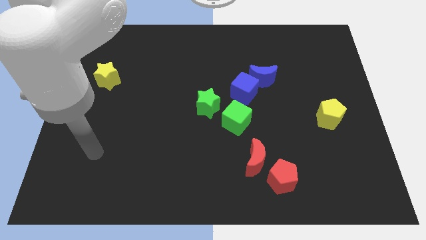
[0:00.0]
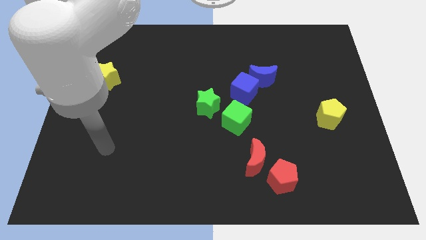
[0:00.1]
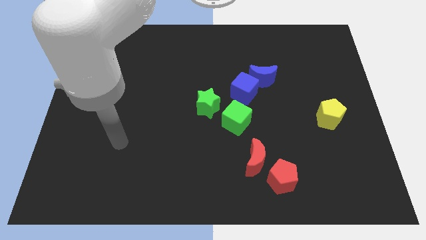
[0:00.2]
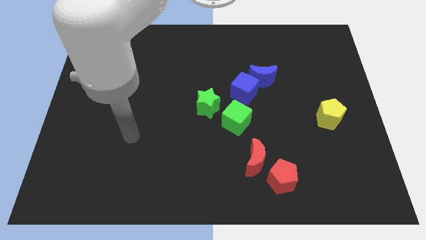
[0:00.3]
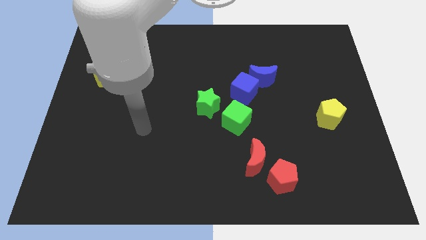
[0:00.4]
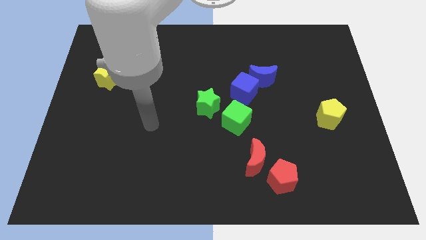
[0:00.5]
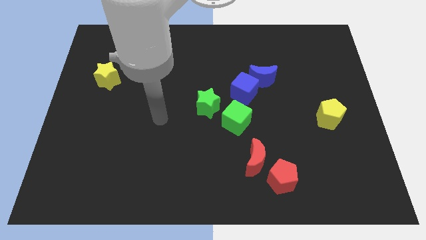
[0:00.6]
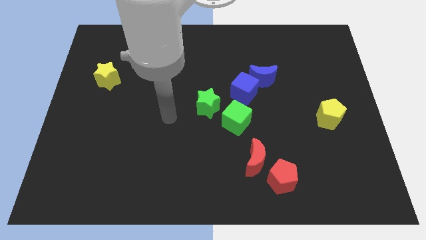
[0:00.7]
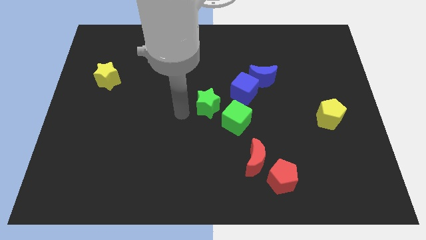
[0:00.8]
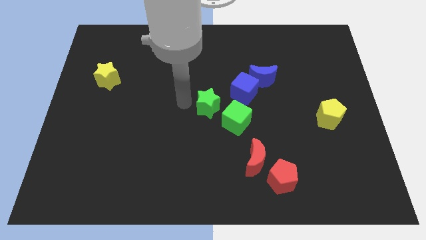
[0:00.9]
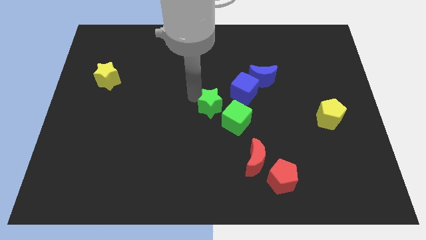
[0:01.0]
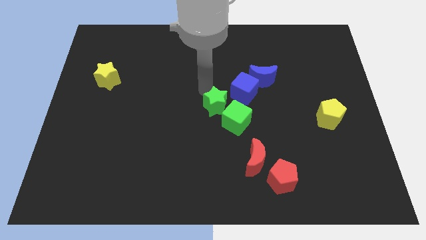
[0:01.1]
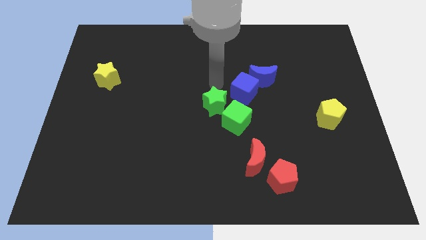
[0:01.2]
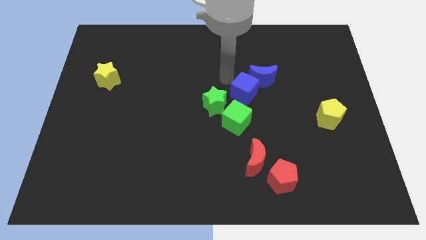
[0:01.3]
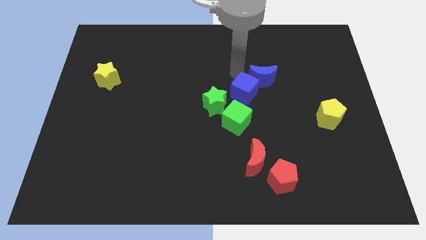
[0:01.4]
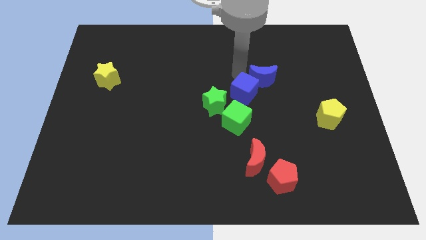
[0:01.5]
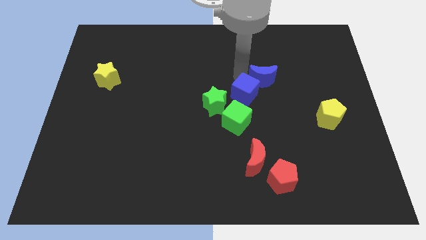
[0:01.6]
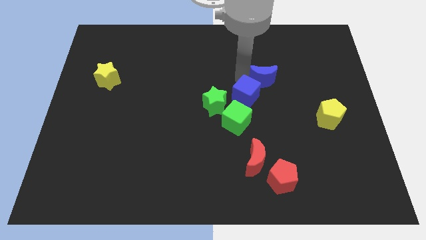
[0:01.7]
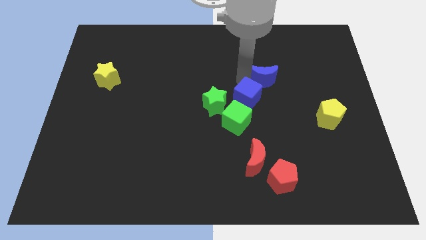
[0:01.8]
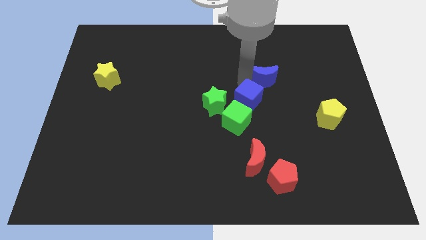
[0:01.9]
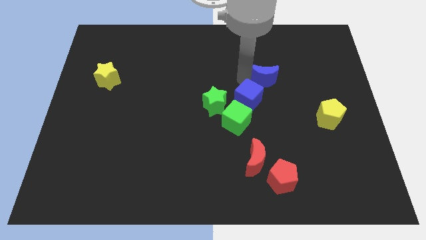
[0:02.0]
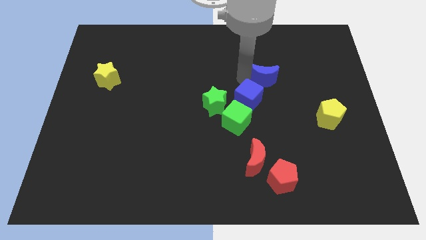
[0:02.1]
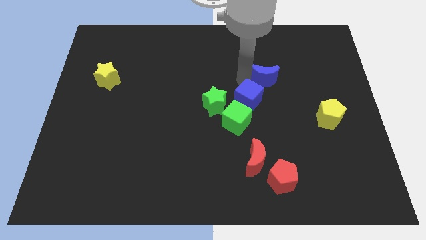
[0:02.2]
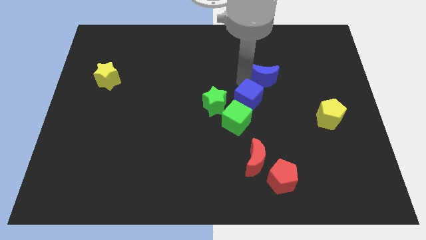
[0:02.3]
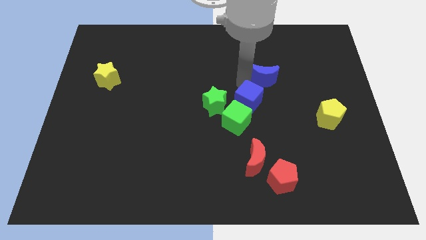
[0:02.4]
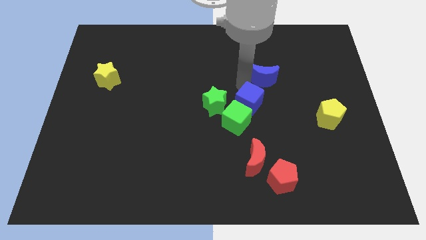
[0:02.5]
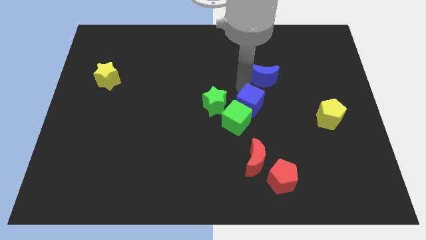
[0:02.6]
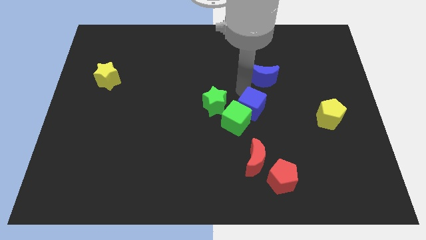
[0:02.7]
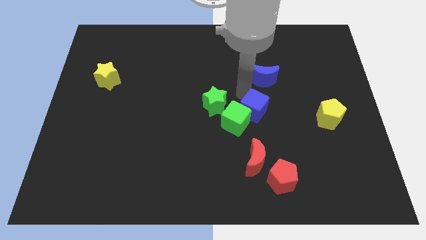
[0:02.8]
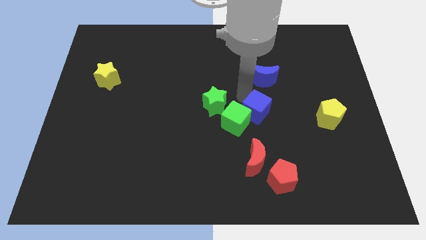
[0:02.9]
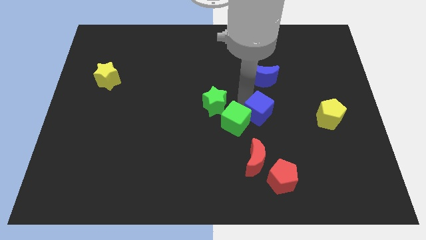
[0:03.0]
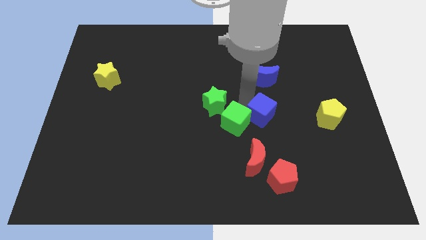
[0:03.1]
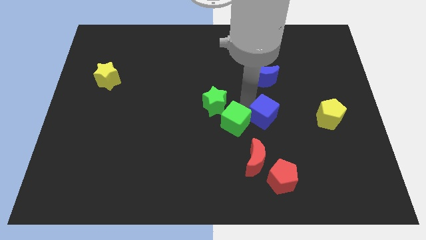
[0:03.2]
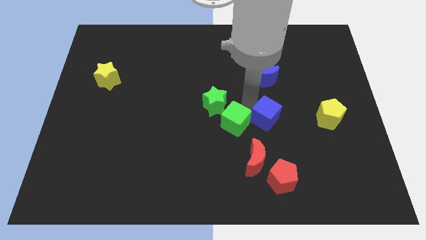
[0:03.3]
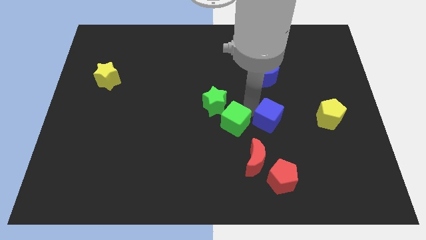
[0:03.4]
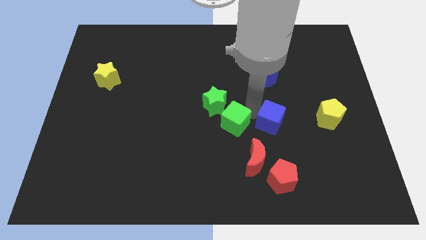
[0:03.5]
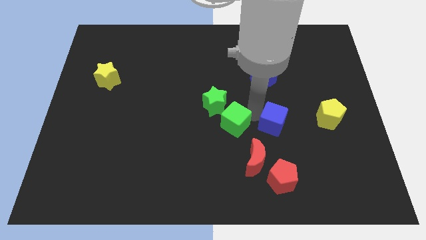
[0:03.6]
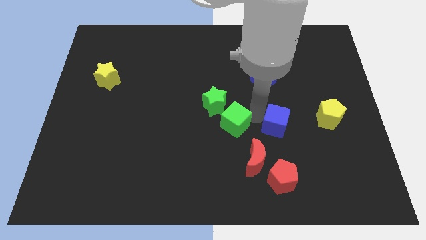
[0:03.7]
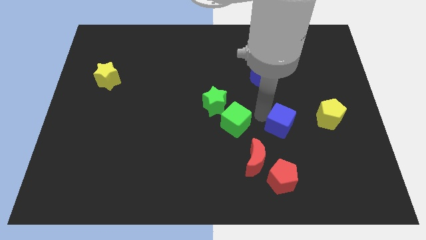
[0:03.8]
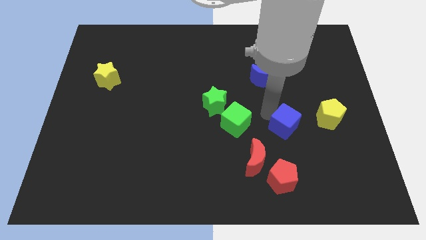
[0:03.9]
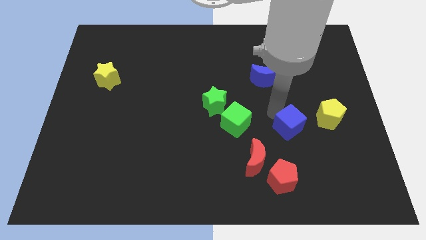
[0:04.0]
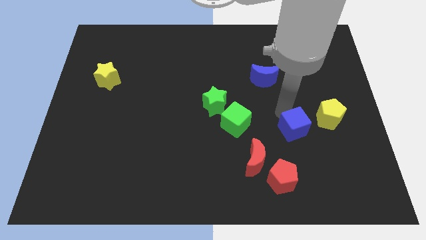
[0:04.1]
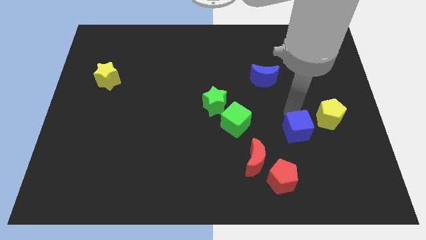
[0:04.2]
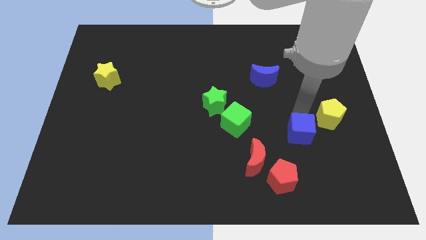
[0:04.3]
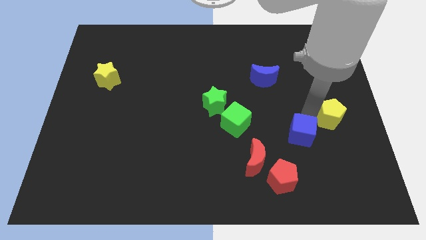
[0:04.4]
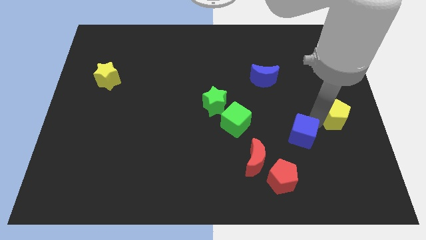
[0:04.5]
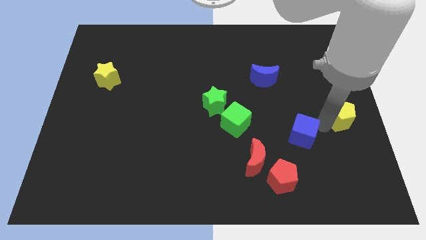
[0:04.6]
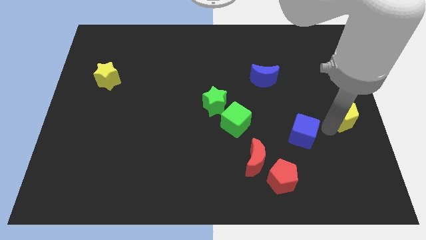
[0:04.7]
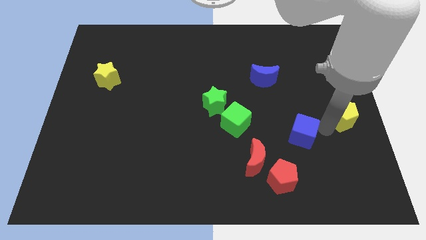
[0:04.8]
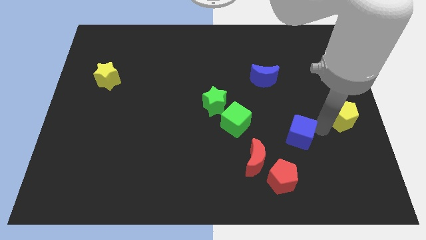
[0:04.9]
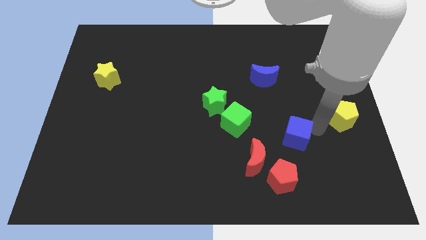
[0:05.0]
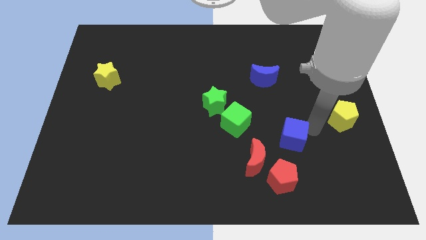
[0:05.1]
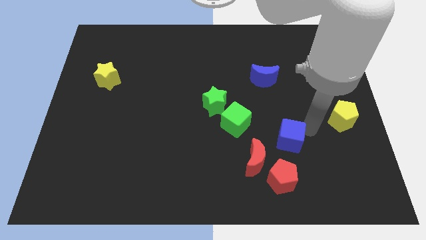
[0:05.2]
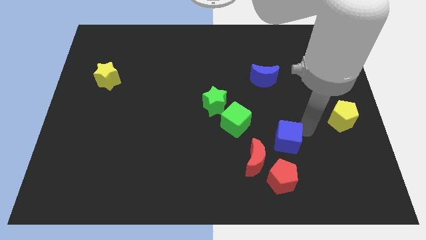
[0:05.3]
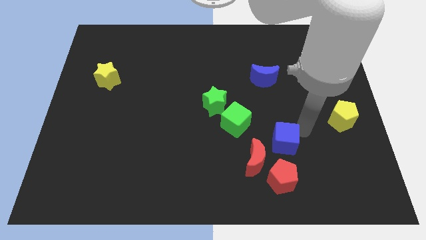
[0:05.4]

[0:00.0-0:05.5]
push the blue cube to the bottom right of the green cube

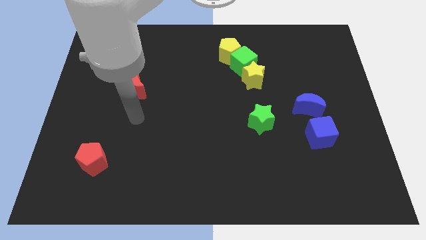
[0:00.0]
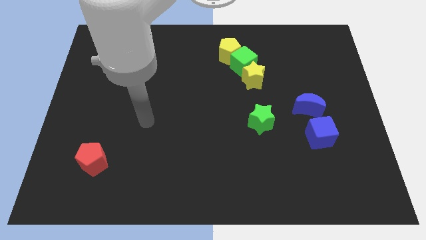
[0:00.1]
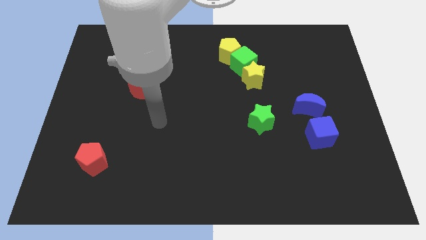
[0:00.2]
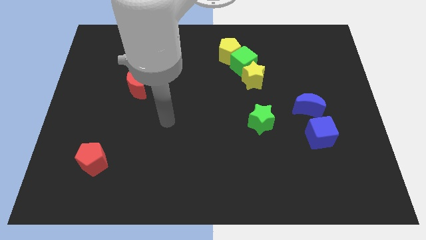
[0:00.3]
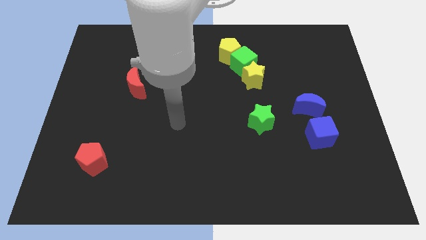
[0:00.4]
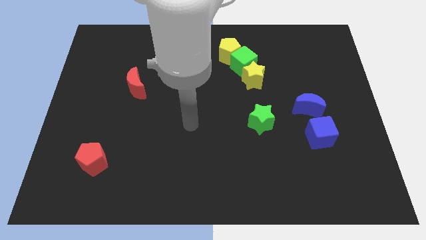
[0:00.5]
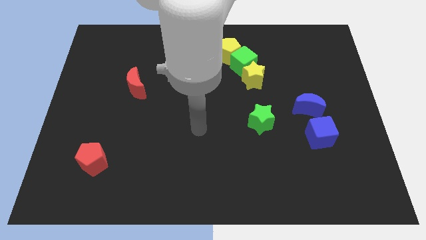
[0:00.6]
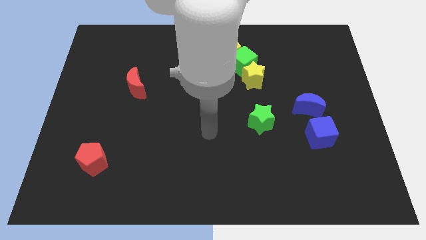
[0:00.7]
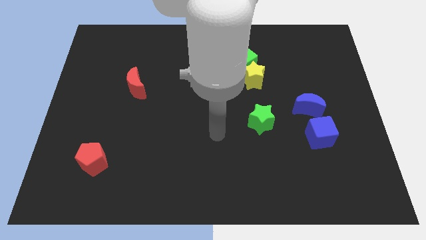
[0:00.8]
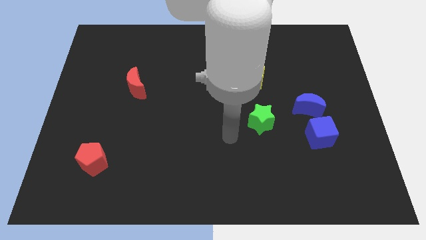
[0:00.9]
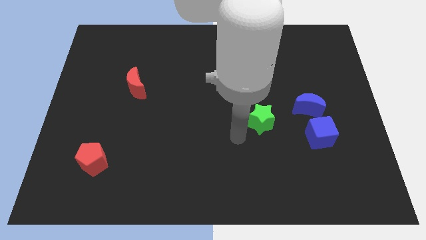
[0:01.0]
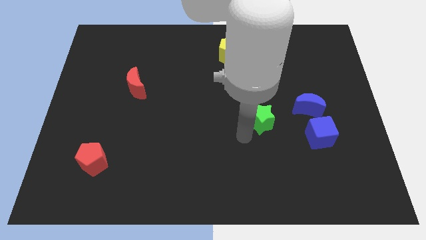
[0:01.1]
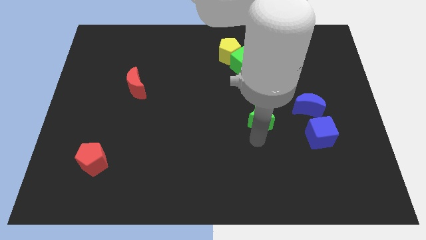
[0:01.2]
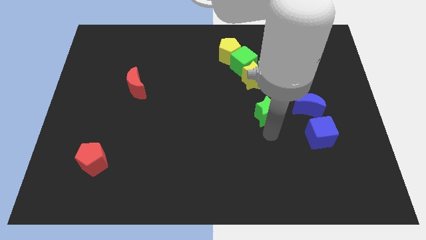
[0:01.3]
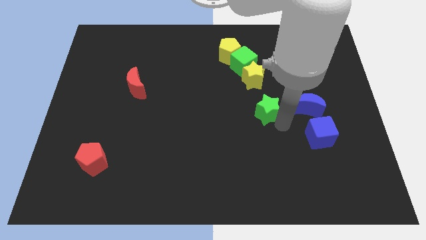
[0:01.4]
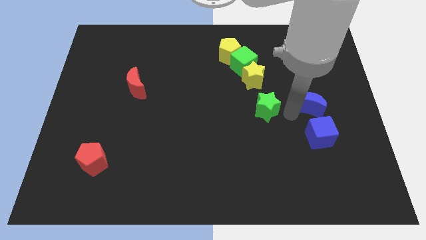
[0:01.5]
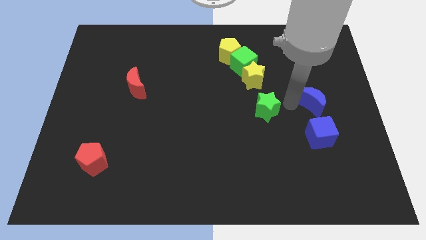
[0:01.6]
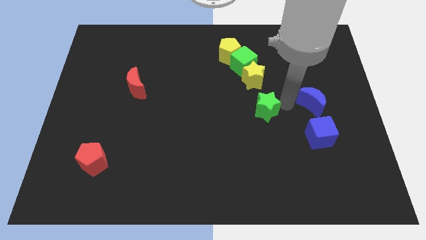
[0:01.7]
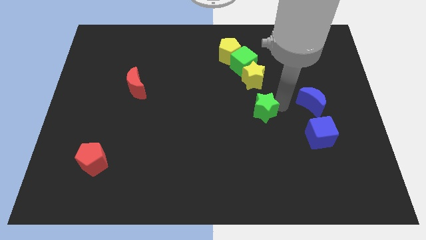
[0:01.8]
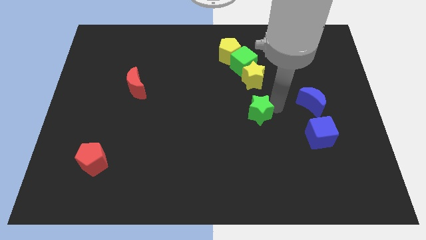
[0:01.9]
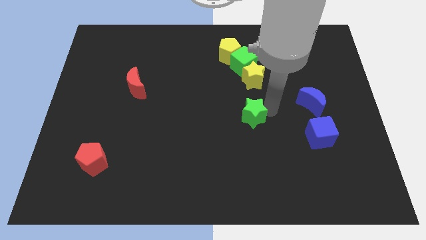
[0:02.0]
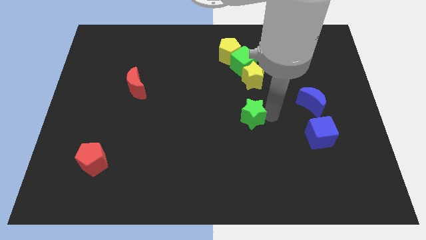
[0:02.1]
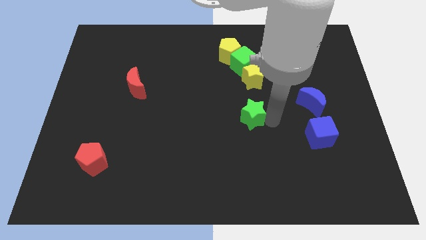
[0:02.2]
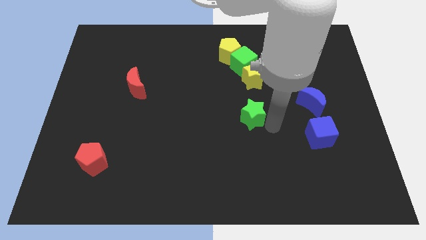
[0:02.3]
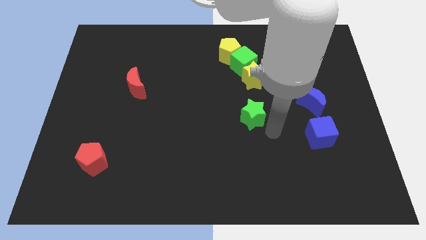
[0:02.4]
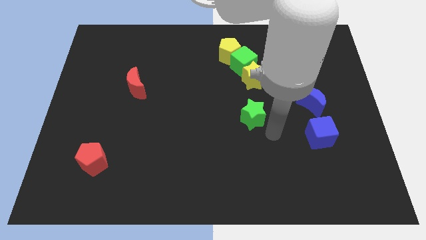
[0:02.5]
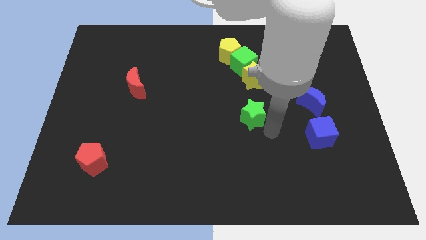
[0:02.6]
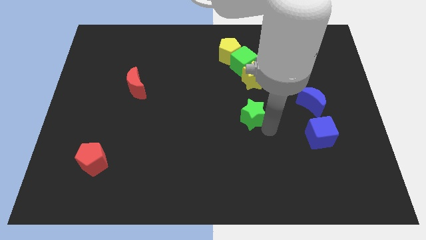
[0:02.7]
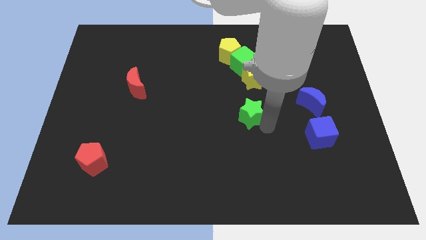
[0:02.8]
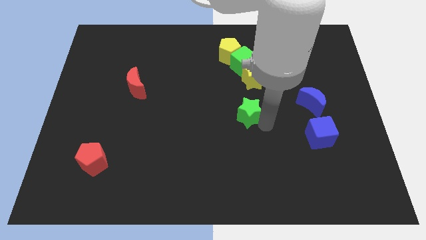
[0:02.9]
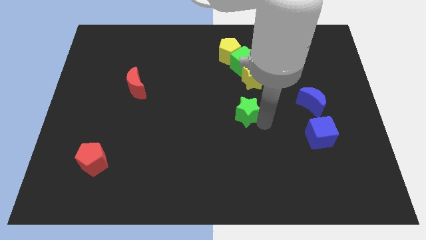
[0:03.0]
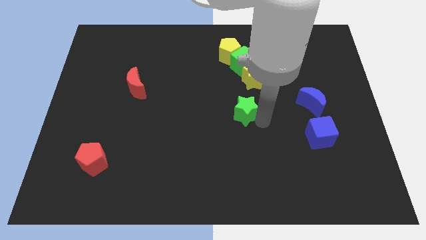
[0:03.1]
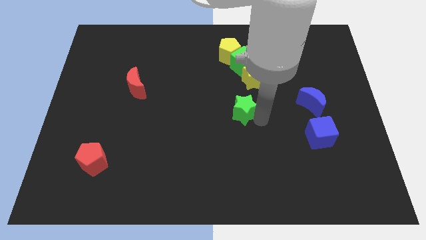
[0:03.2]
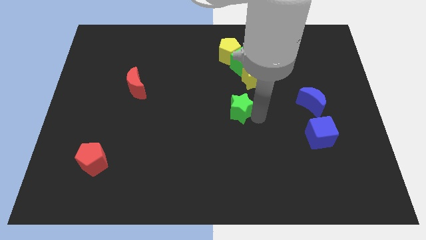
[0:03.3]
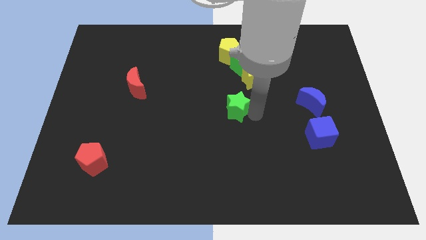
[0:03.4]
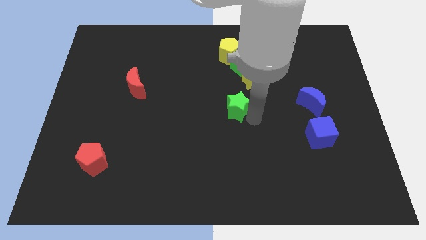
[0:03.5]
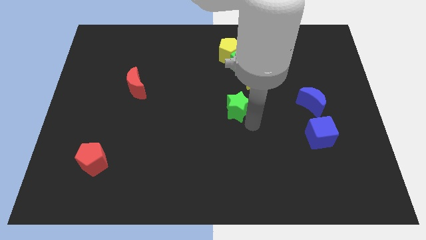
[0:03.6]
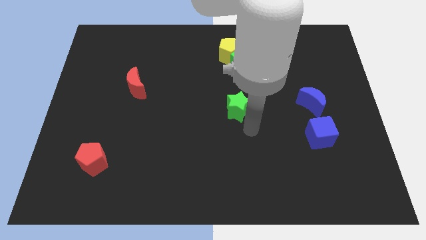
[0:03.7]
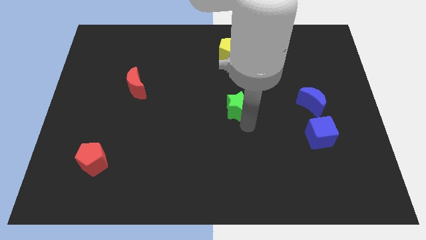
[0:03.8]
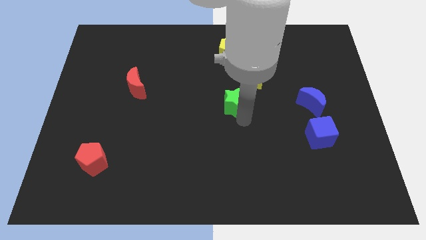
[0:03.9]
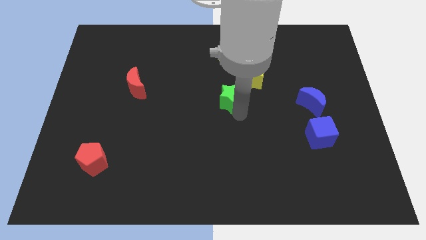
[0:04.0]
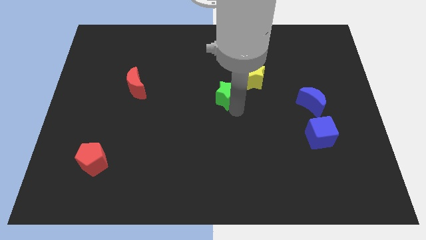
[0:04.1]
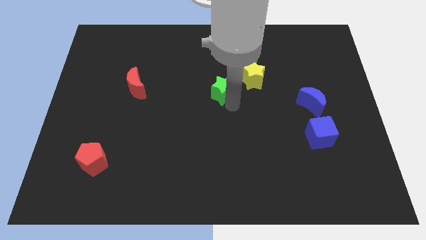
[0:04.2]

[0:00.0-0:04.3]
push the green star to the left side of the yellow star
